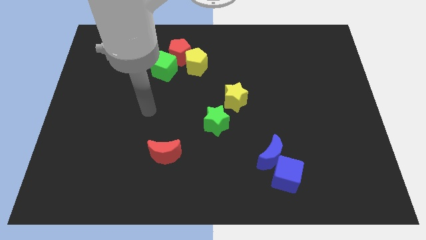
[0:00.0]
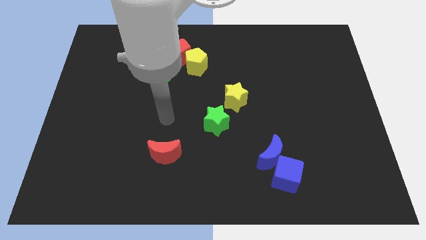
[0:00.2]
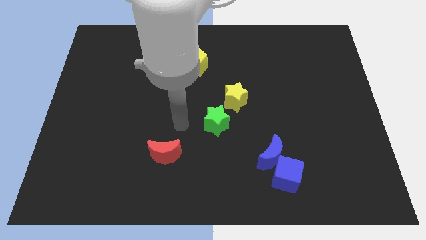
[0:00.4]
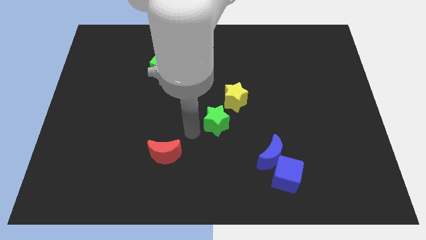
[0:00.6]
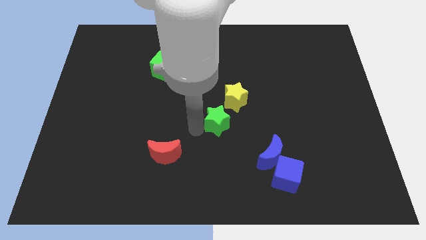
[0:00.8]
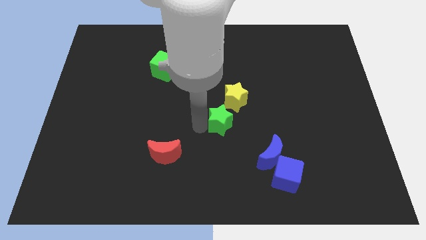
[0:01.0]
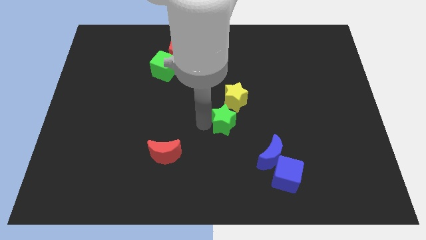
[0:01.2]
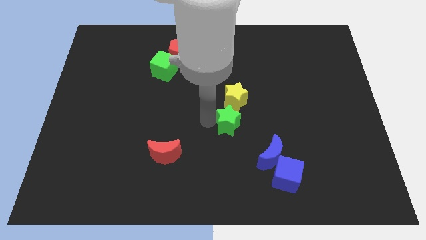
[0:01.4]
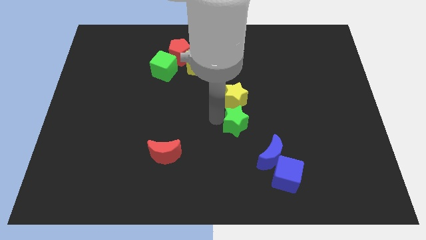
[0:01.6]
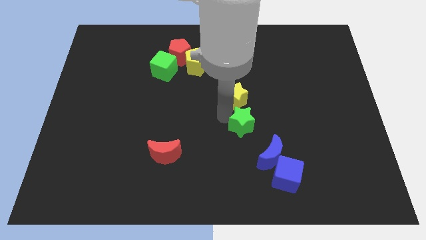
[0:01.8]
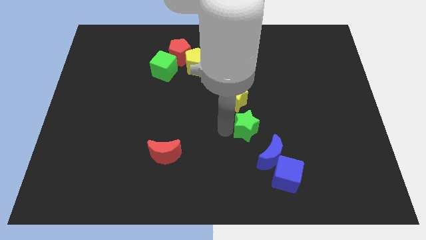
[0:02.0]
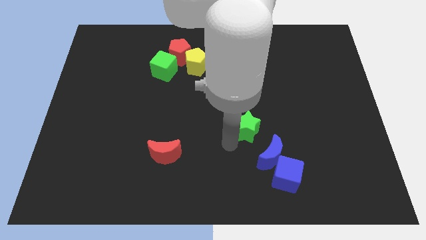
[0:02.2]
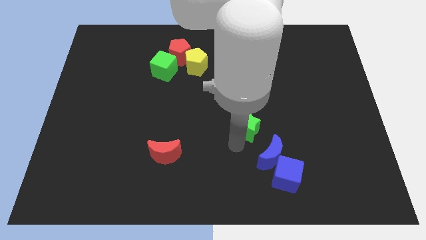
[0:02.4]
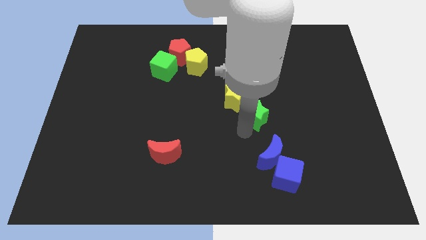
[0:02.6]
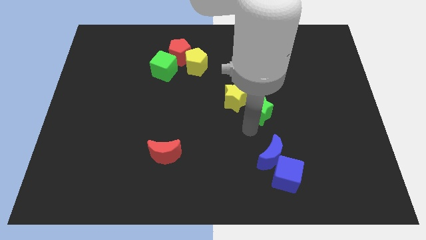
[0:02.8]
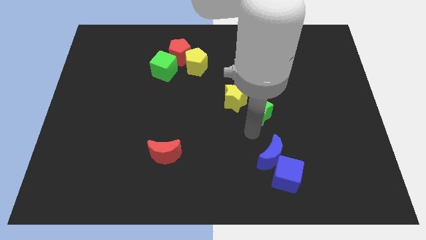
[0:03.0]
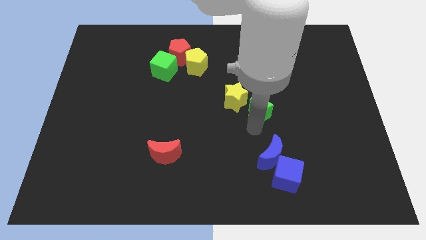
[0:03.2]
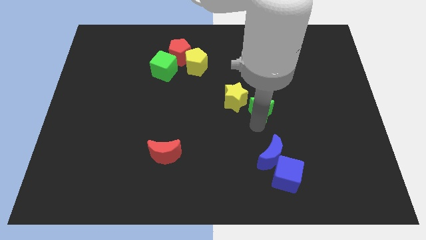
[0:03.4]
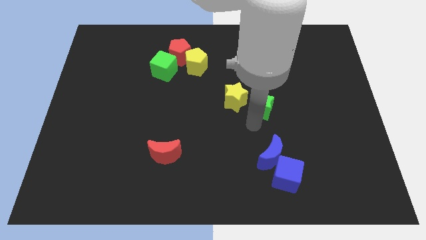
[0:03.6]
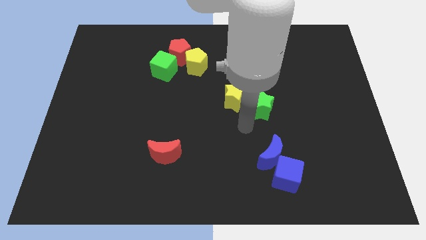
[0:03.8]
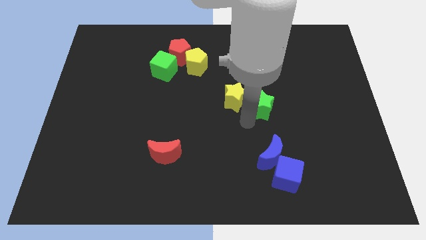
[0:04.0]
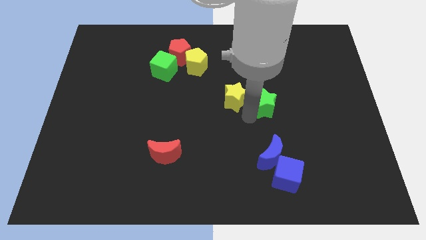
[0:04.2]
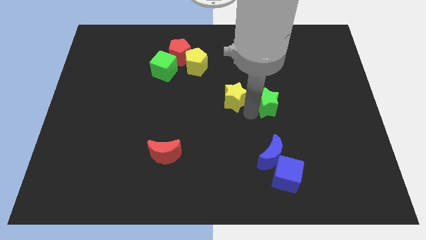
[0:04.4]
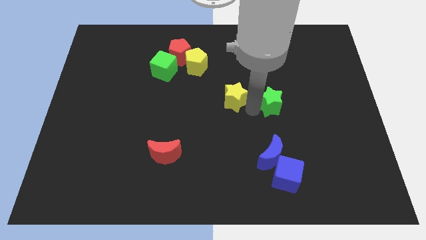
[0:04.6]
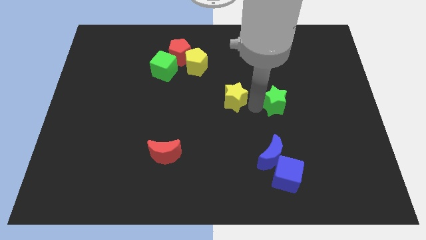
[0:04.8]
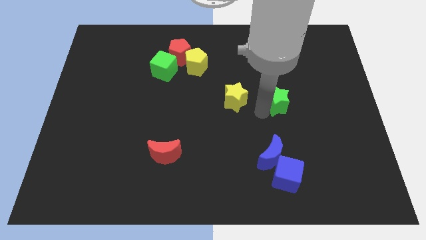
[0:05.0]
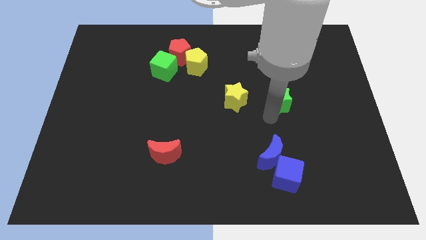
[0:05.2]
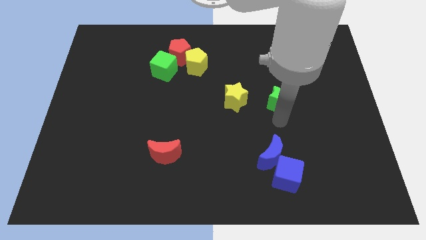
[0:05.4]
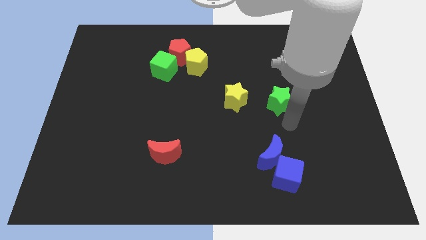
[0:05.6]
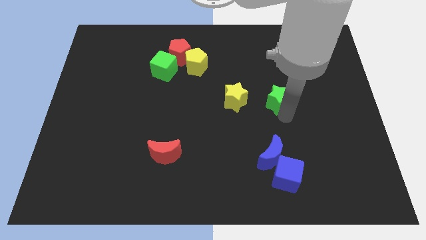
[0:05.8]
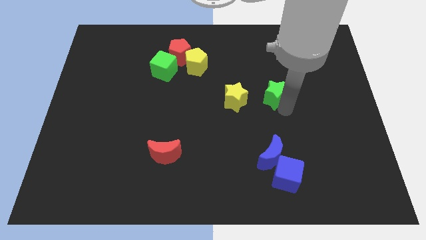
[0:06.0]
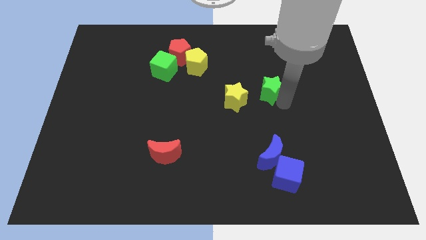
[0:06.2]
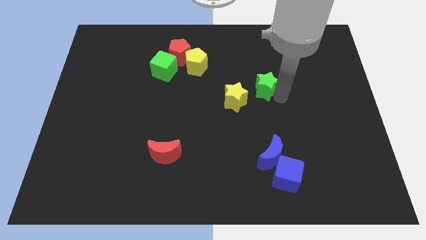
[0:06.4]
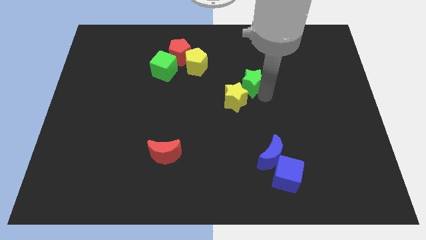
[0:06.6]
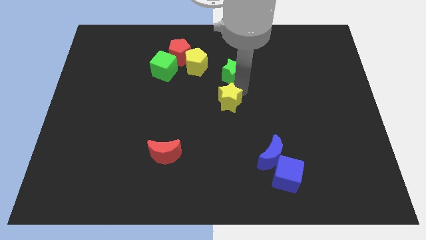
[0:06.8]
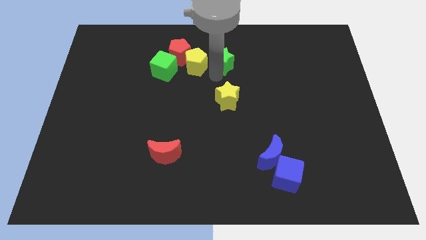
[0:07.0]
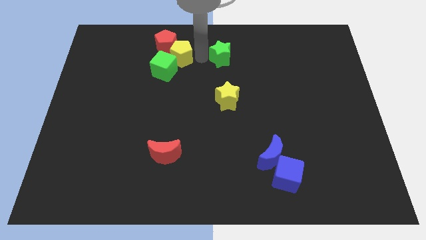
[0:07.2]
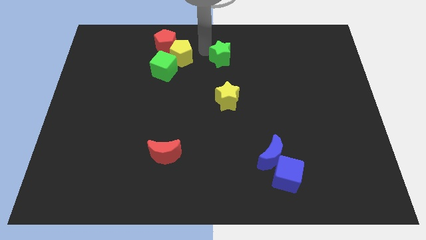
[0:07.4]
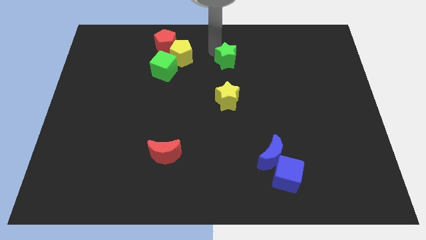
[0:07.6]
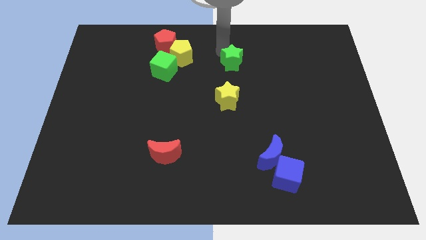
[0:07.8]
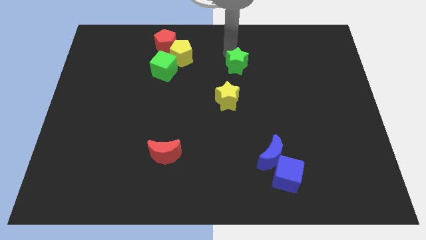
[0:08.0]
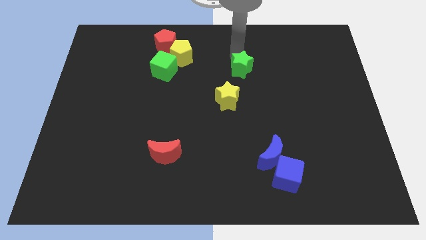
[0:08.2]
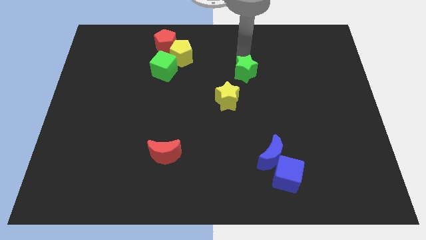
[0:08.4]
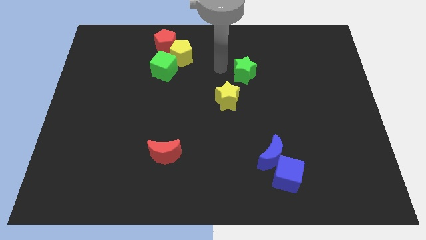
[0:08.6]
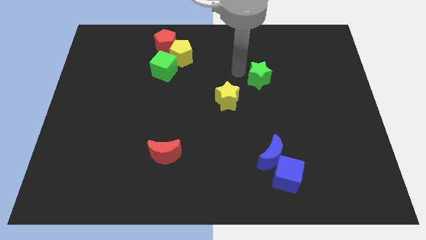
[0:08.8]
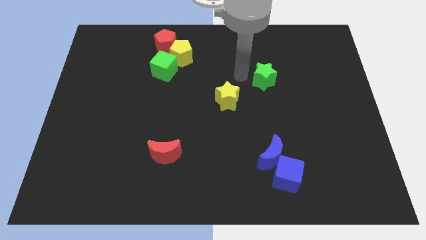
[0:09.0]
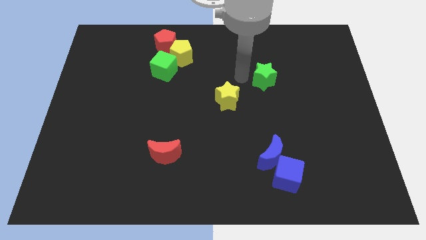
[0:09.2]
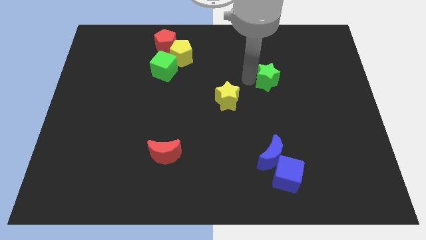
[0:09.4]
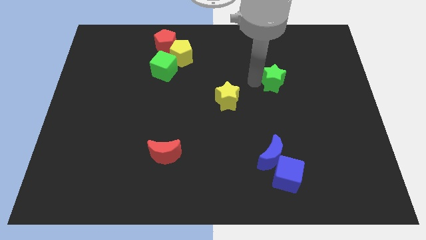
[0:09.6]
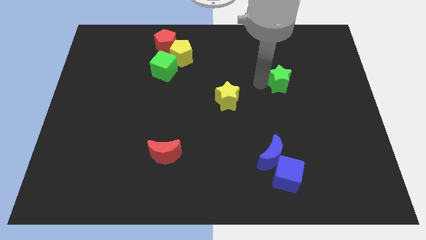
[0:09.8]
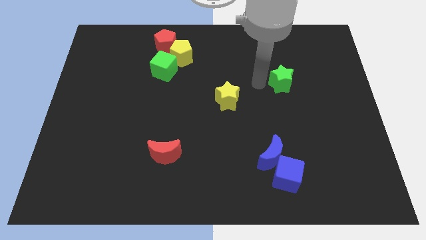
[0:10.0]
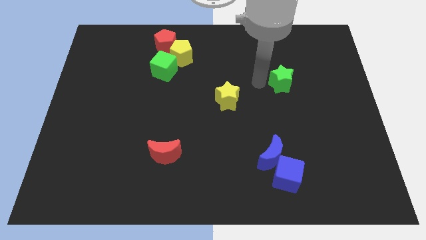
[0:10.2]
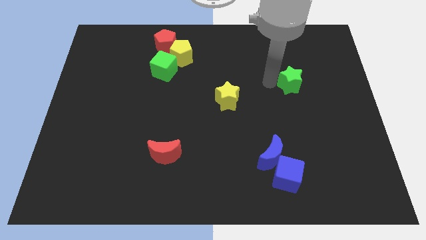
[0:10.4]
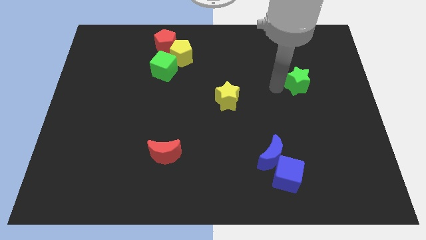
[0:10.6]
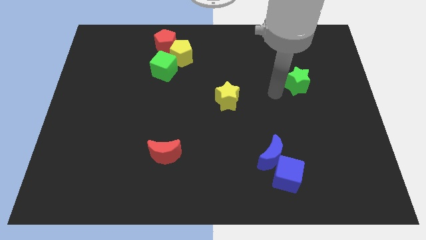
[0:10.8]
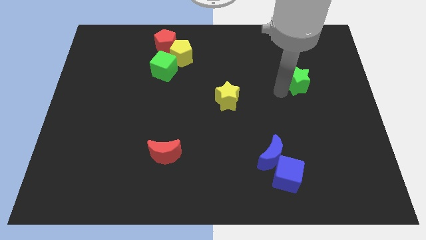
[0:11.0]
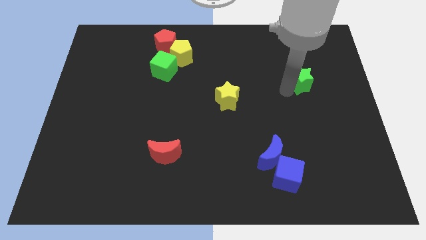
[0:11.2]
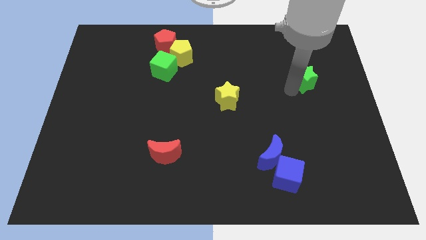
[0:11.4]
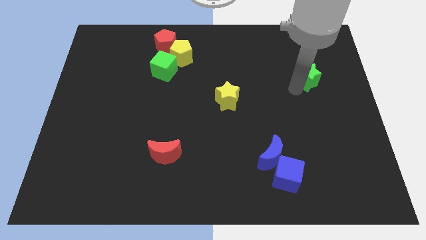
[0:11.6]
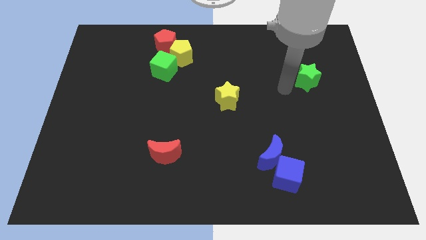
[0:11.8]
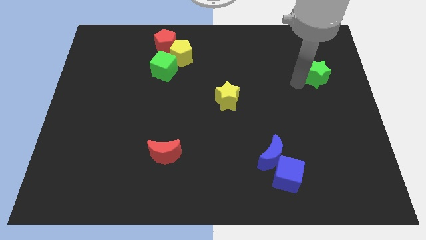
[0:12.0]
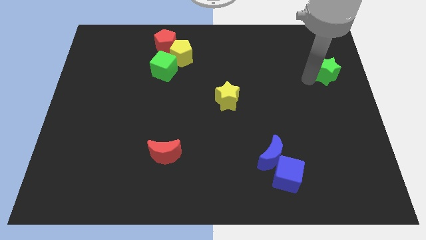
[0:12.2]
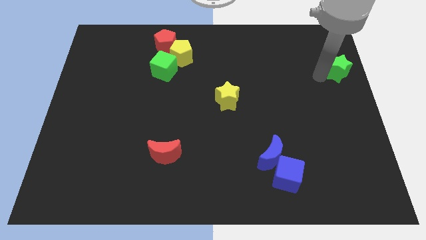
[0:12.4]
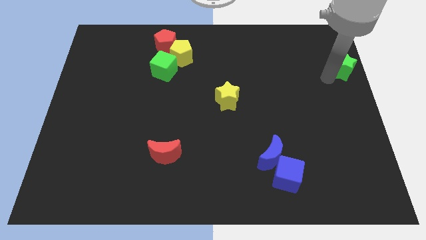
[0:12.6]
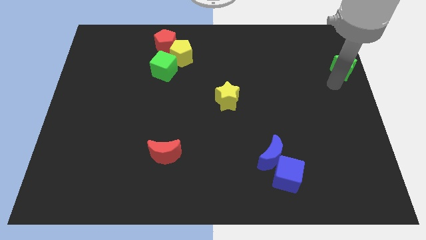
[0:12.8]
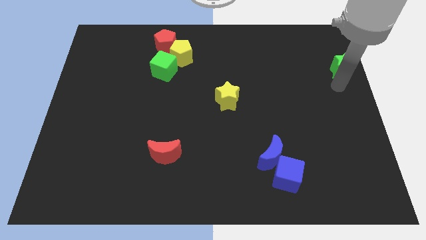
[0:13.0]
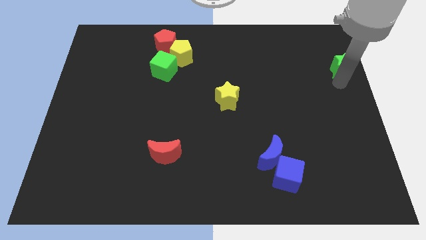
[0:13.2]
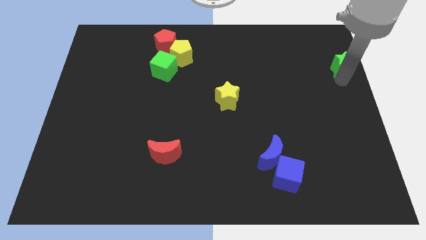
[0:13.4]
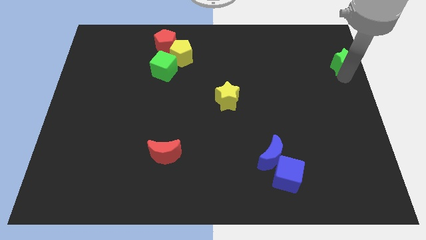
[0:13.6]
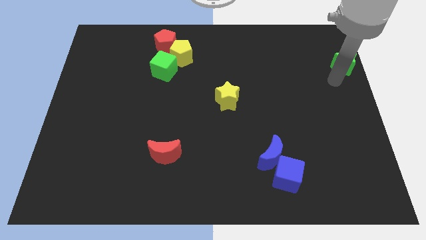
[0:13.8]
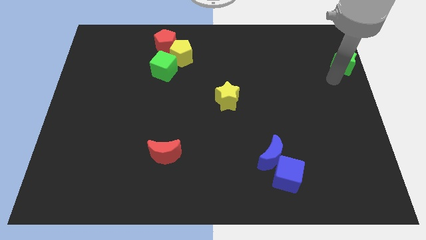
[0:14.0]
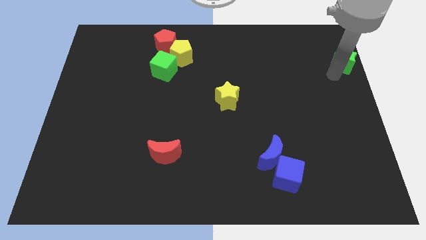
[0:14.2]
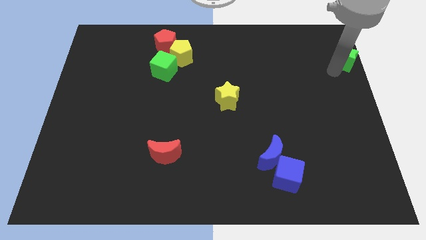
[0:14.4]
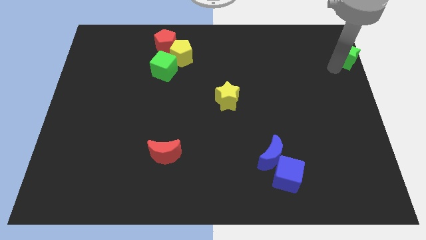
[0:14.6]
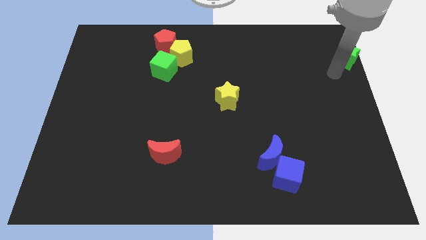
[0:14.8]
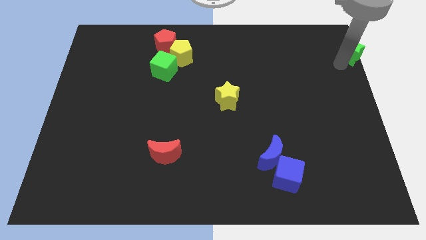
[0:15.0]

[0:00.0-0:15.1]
push the green star to the top right of the board
